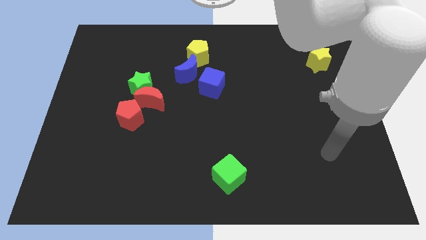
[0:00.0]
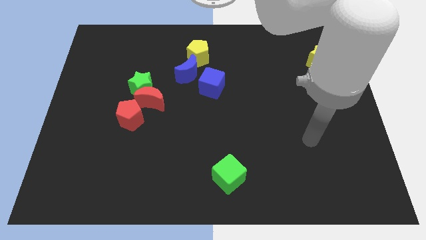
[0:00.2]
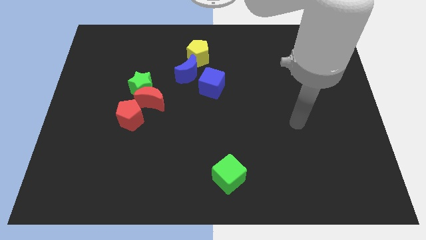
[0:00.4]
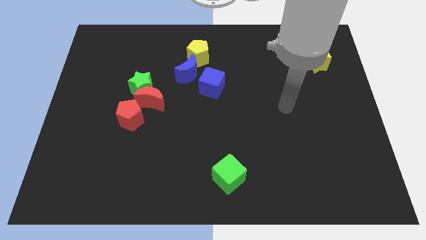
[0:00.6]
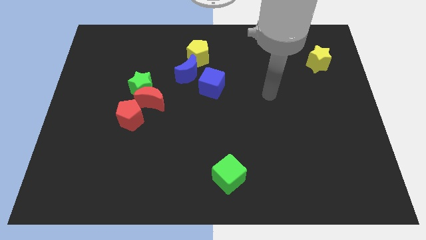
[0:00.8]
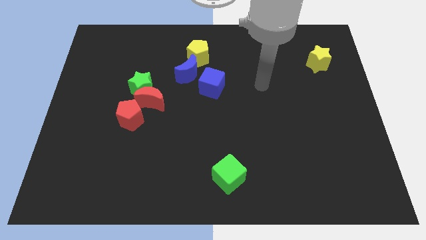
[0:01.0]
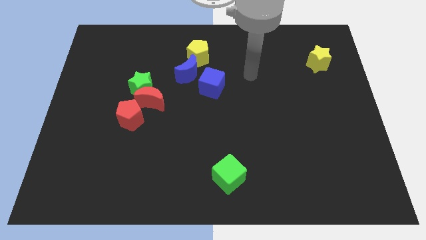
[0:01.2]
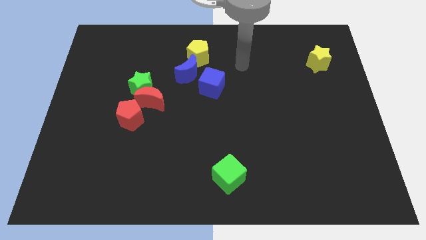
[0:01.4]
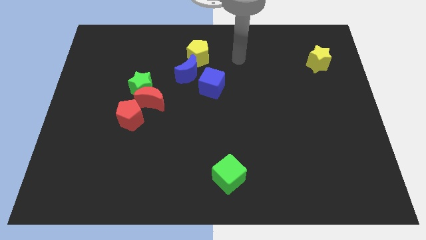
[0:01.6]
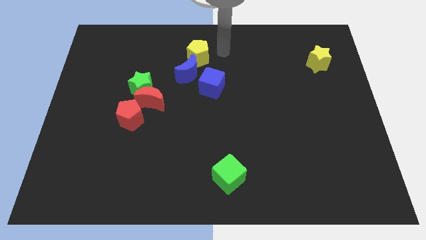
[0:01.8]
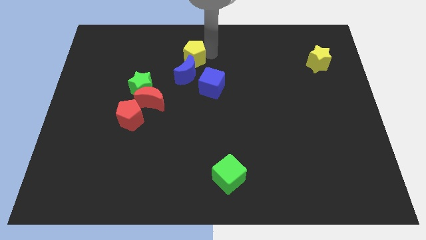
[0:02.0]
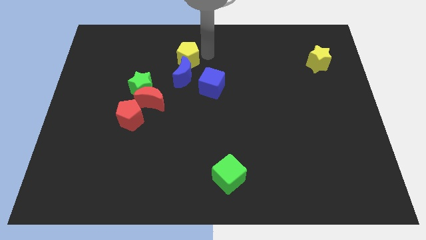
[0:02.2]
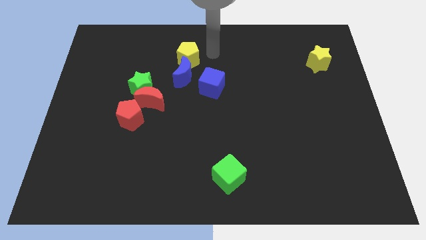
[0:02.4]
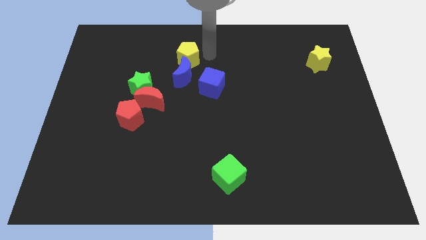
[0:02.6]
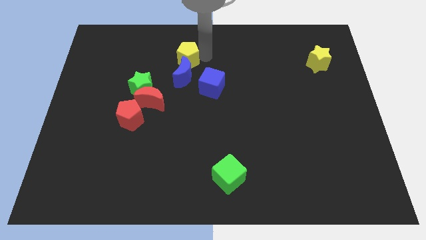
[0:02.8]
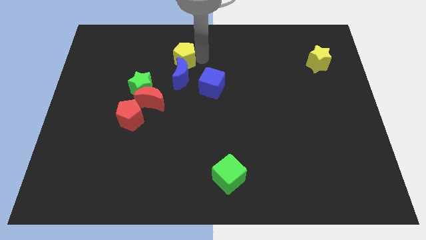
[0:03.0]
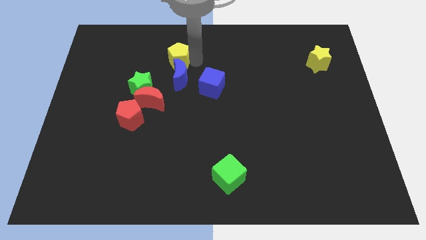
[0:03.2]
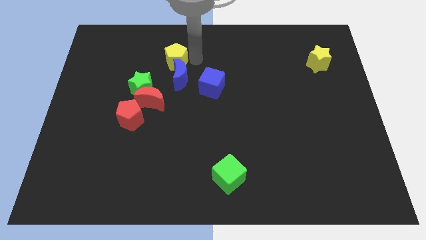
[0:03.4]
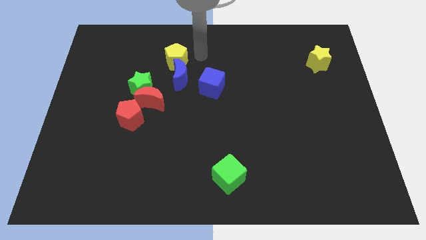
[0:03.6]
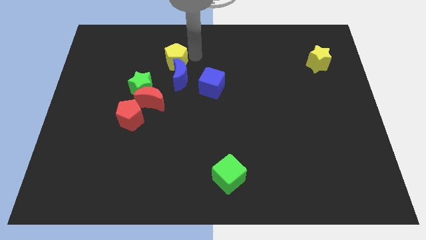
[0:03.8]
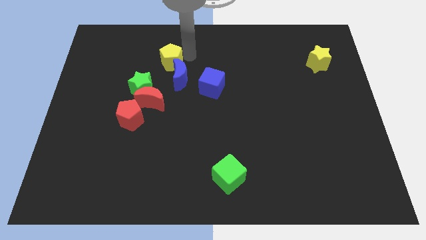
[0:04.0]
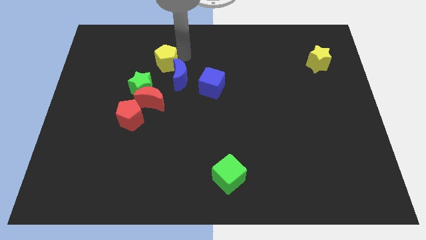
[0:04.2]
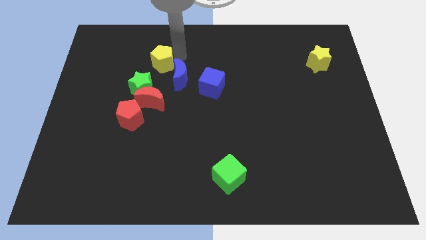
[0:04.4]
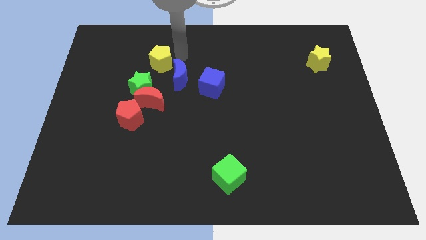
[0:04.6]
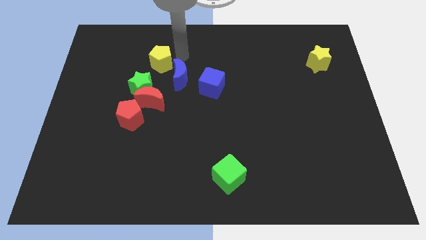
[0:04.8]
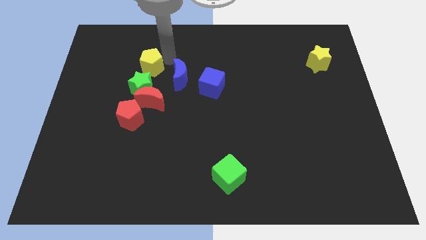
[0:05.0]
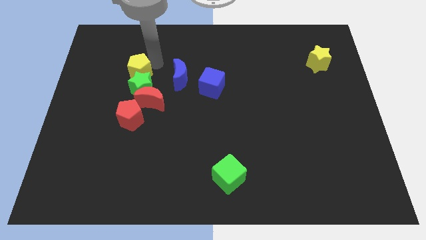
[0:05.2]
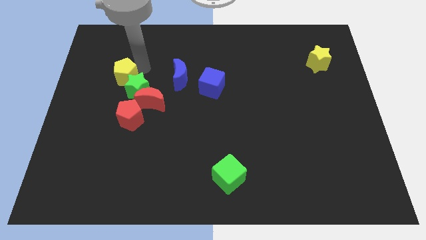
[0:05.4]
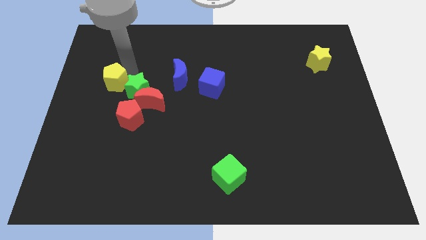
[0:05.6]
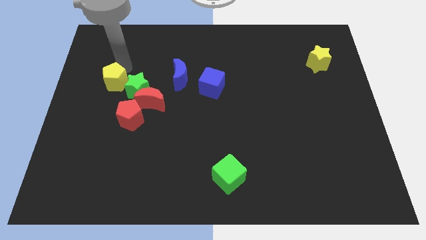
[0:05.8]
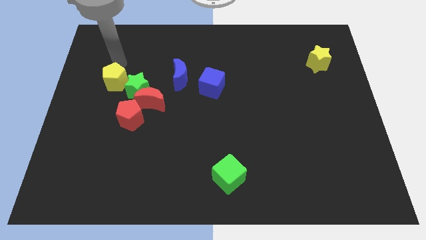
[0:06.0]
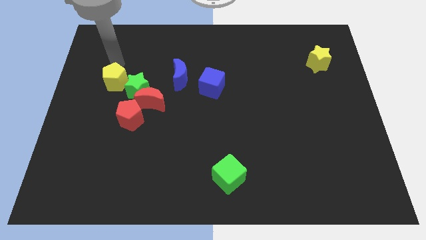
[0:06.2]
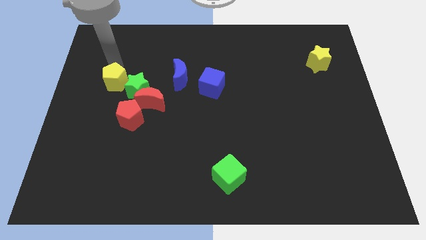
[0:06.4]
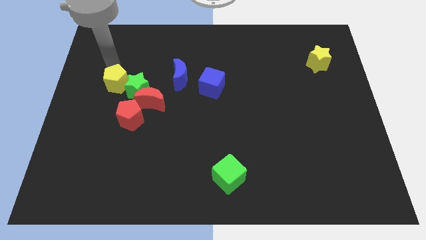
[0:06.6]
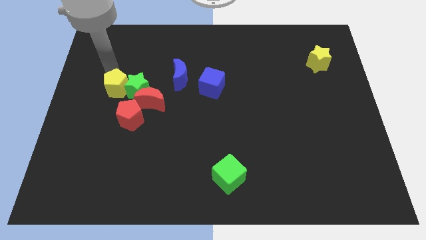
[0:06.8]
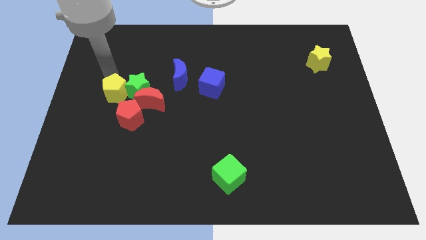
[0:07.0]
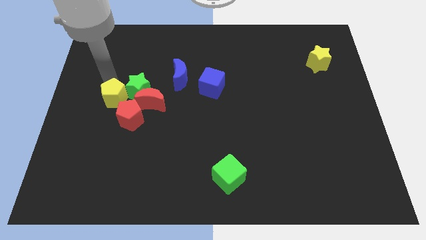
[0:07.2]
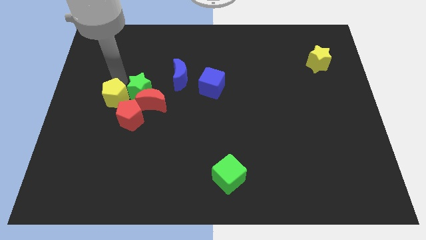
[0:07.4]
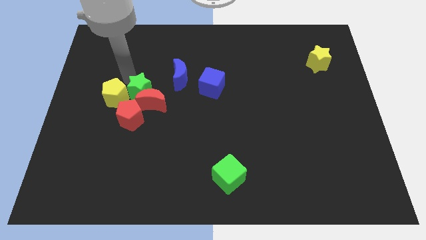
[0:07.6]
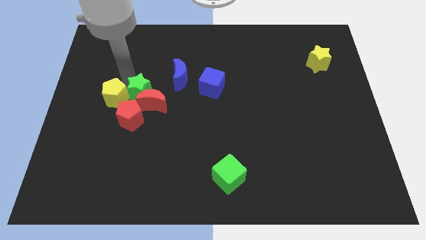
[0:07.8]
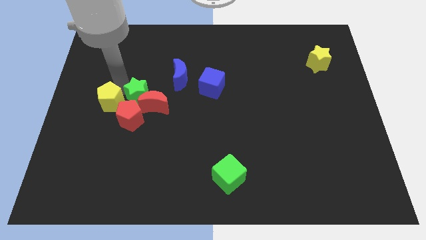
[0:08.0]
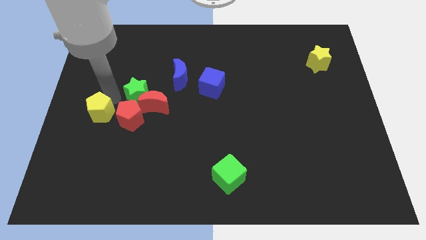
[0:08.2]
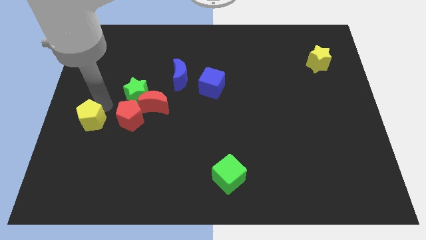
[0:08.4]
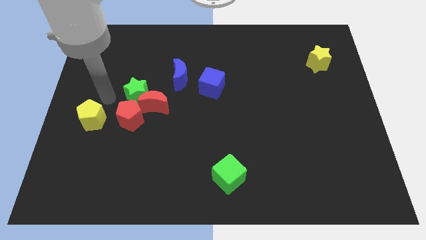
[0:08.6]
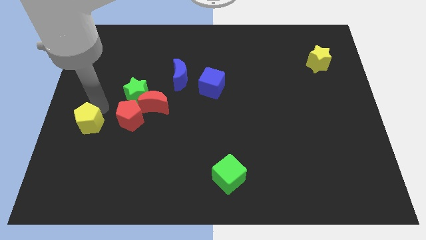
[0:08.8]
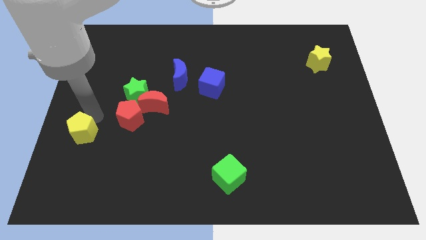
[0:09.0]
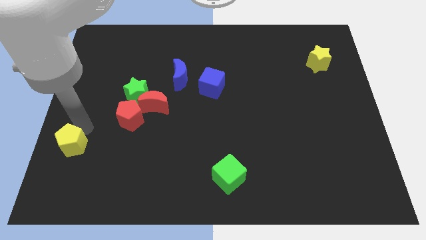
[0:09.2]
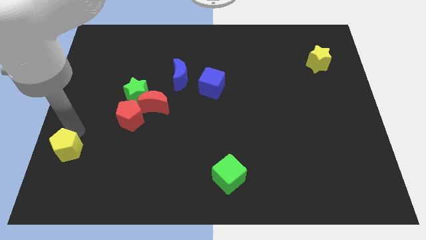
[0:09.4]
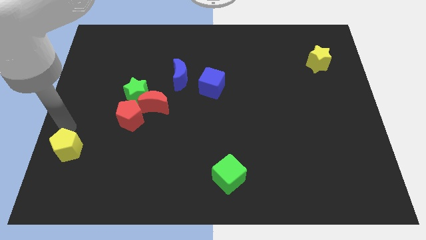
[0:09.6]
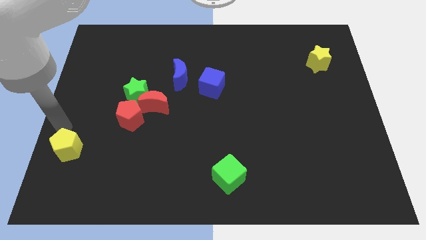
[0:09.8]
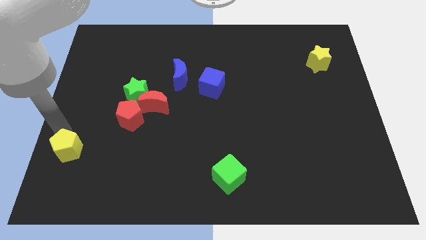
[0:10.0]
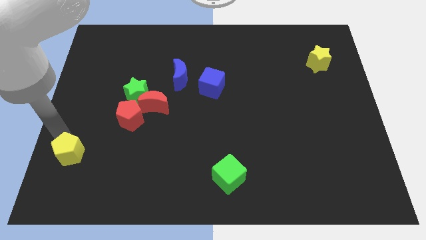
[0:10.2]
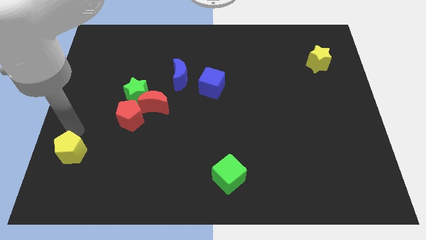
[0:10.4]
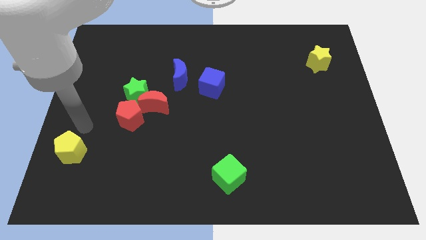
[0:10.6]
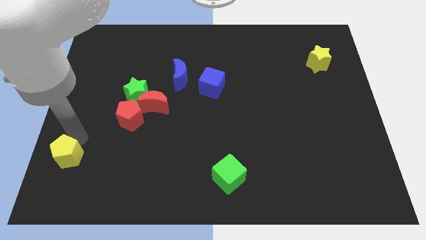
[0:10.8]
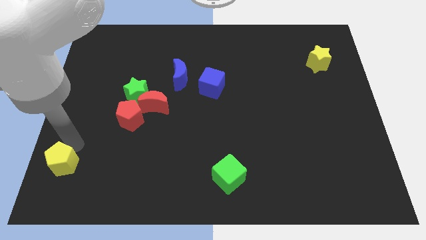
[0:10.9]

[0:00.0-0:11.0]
put the yellow pentagon to the bottom left corner

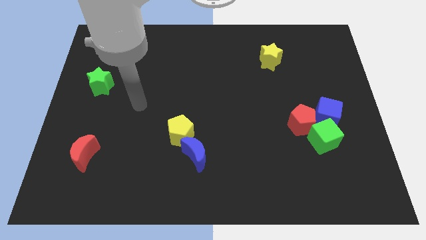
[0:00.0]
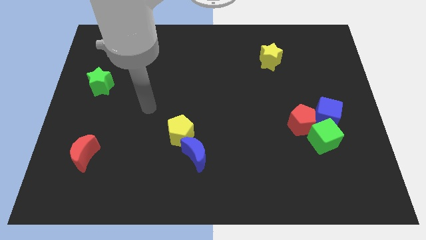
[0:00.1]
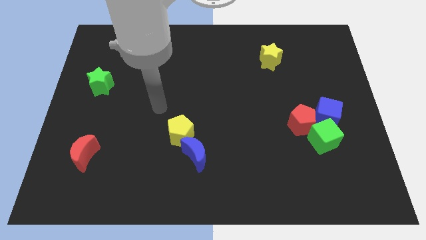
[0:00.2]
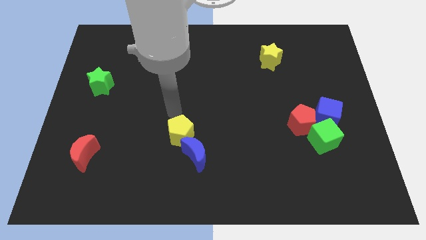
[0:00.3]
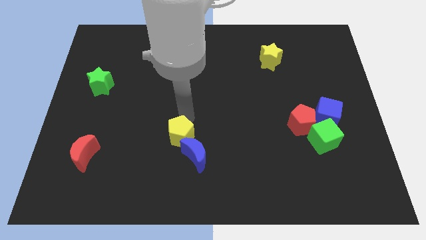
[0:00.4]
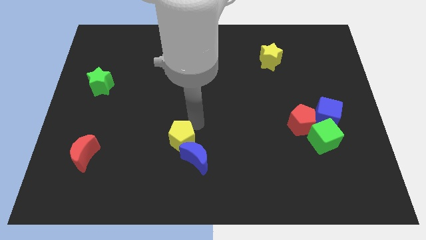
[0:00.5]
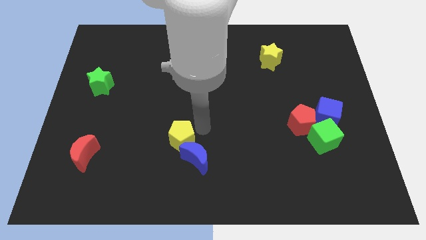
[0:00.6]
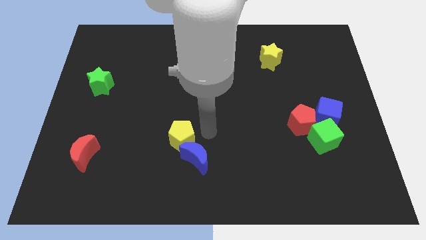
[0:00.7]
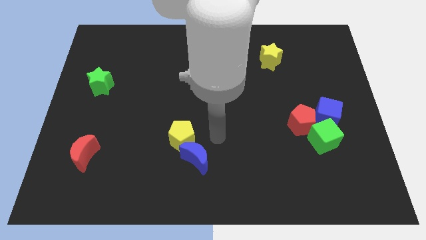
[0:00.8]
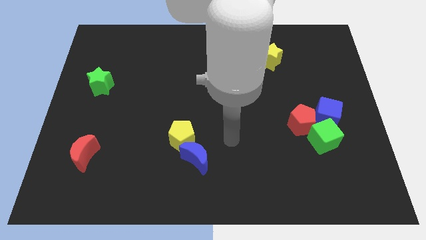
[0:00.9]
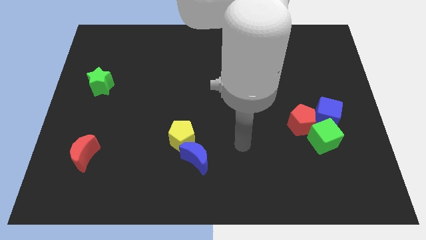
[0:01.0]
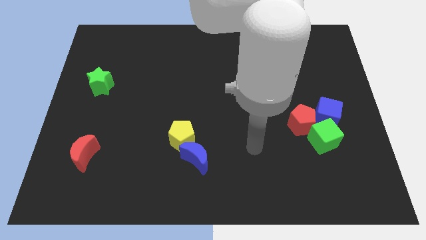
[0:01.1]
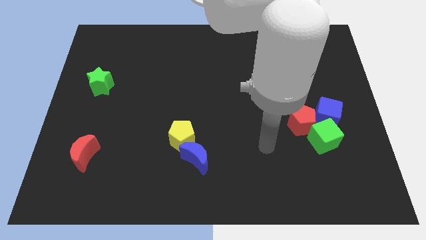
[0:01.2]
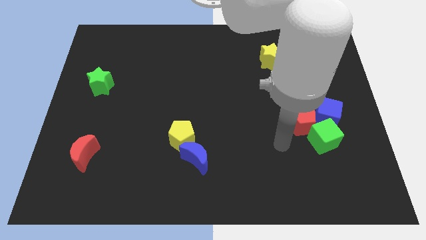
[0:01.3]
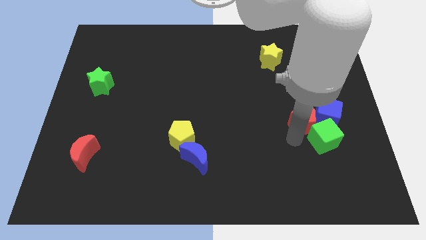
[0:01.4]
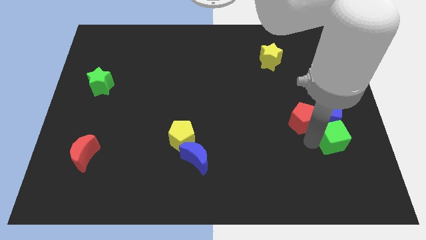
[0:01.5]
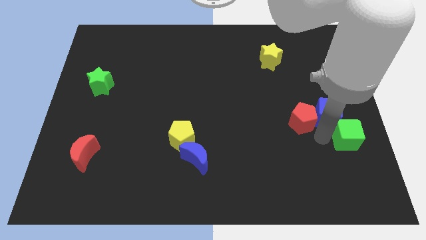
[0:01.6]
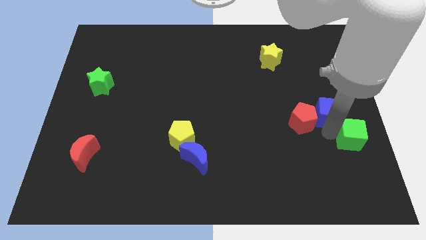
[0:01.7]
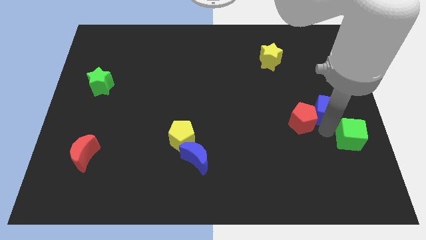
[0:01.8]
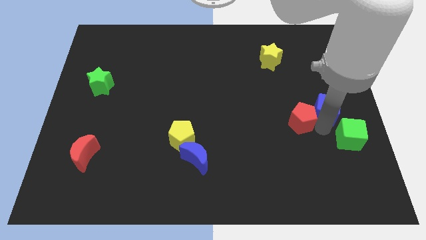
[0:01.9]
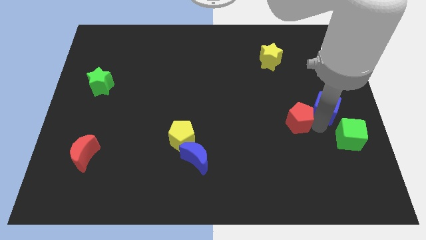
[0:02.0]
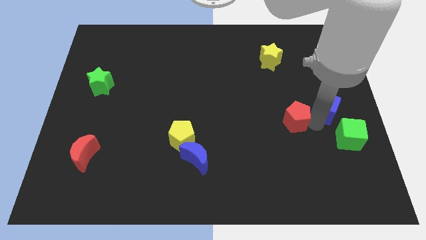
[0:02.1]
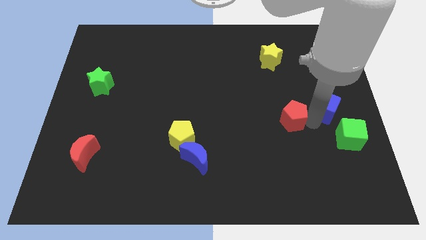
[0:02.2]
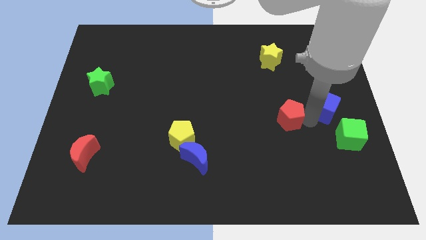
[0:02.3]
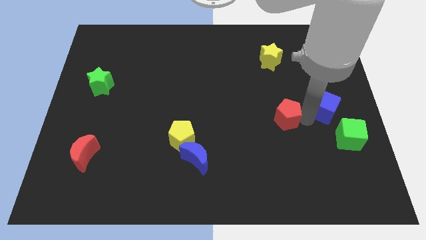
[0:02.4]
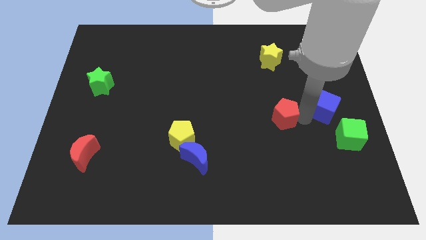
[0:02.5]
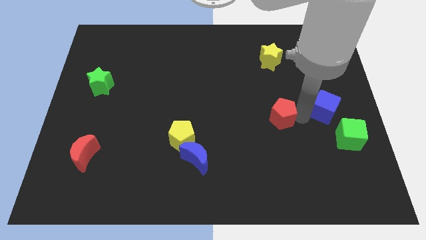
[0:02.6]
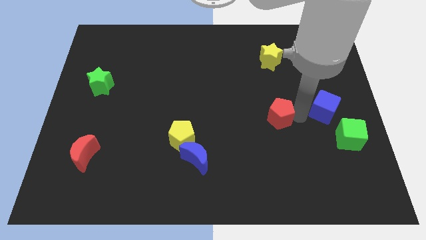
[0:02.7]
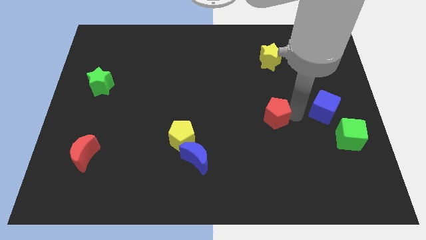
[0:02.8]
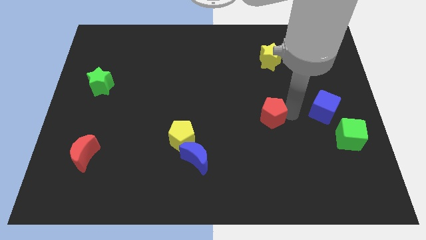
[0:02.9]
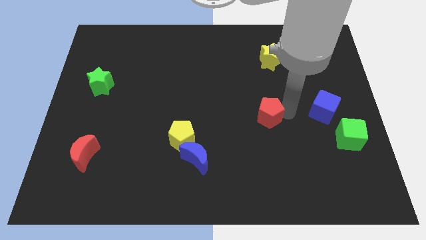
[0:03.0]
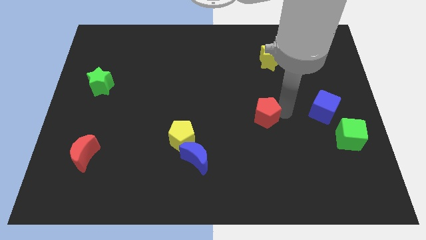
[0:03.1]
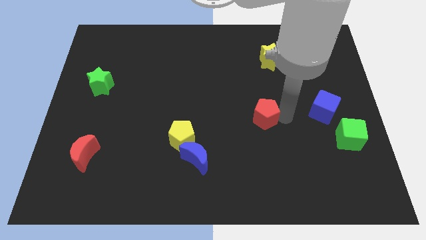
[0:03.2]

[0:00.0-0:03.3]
push the red pentagon to the center
